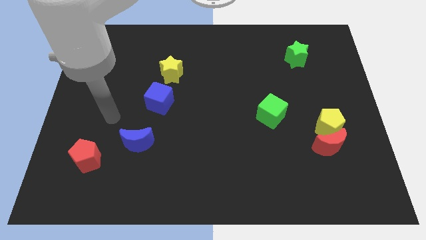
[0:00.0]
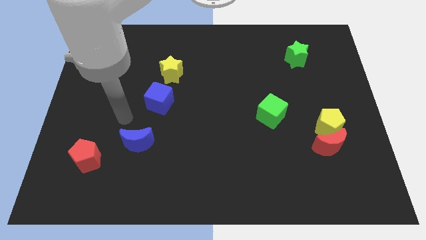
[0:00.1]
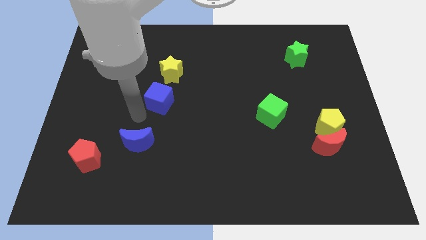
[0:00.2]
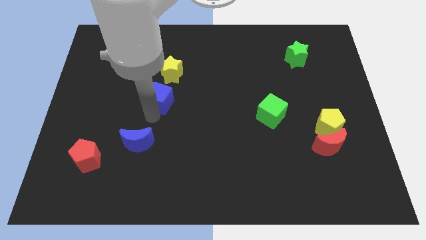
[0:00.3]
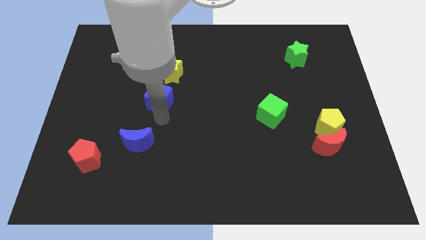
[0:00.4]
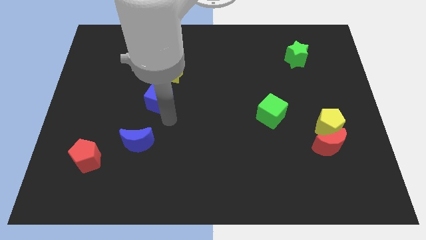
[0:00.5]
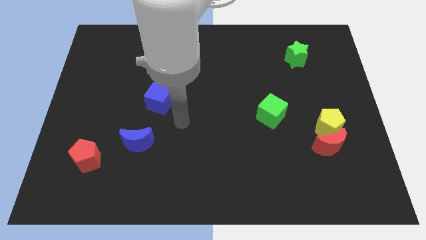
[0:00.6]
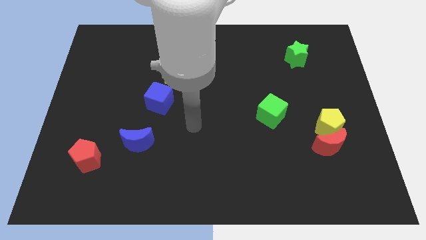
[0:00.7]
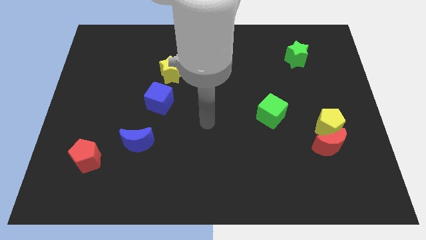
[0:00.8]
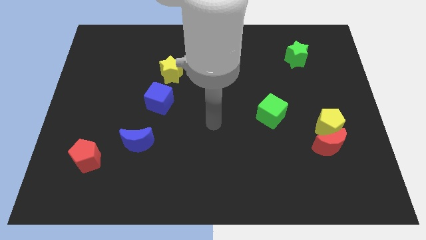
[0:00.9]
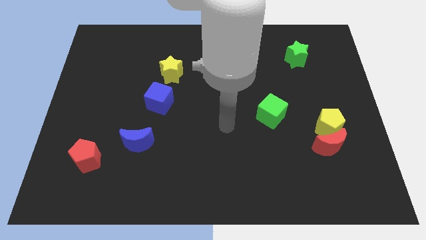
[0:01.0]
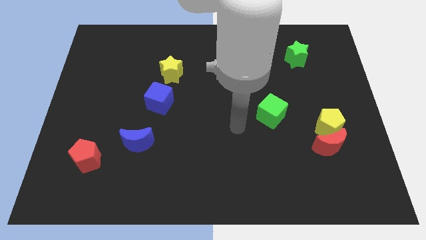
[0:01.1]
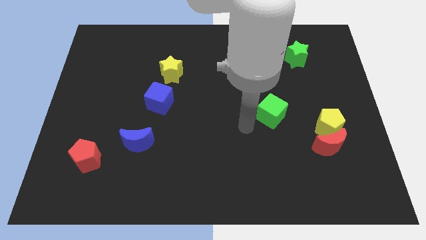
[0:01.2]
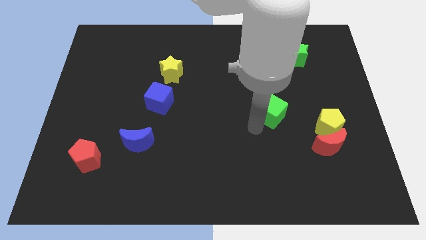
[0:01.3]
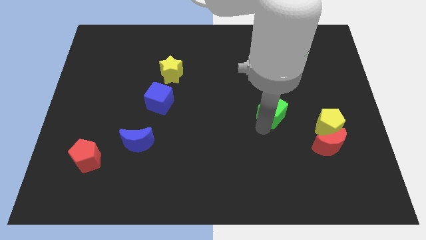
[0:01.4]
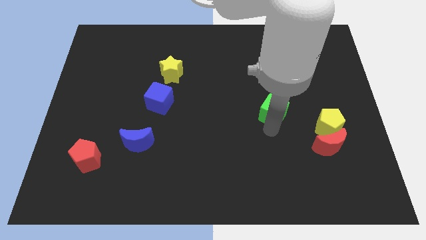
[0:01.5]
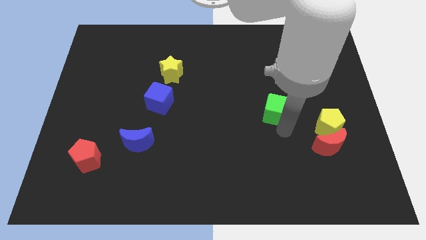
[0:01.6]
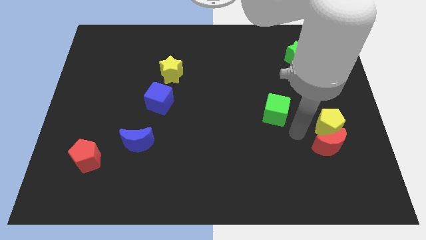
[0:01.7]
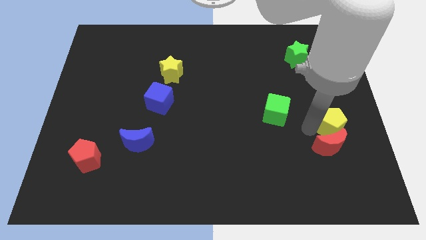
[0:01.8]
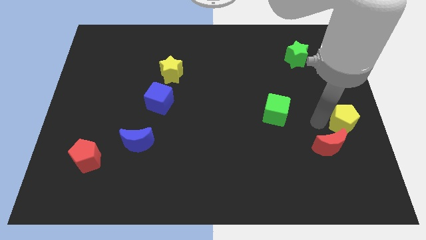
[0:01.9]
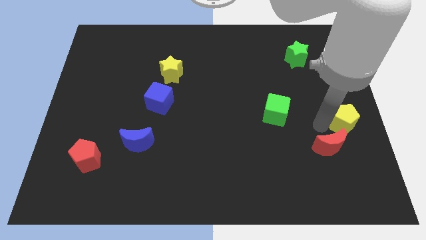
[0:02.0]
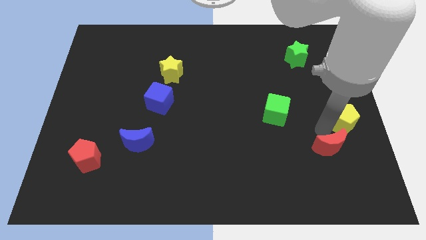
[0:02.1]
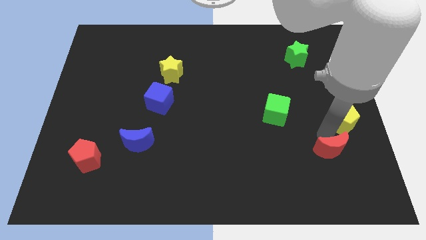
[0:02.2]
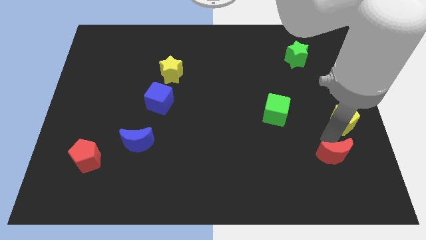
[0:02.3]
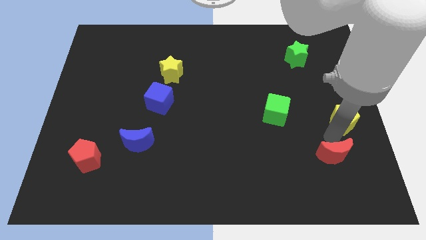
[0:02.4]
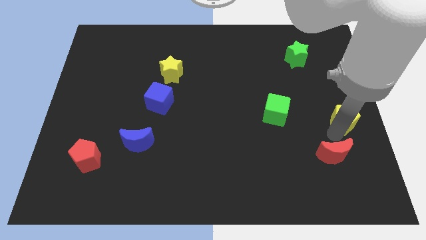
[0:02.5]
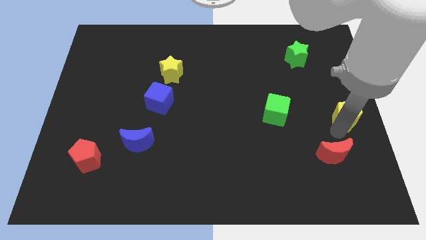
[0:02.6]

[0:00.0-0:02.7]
move the red moon away from the yellow pentagon

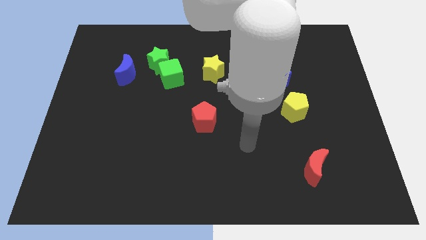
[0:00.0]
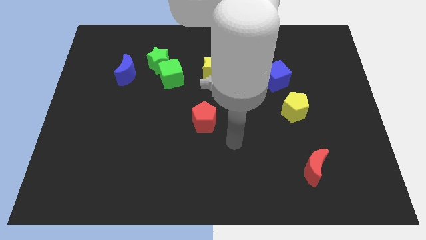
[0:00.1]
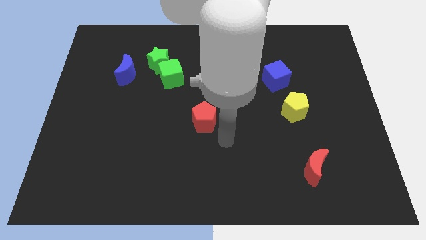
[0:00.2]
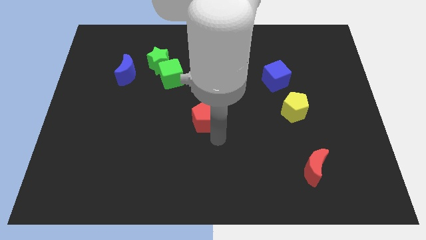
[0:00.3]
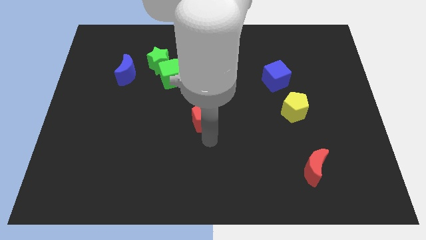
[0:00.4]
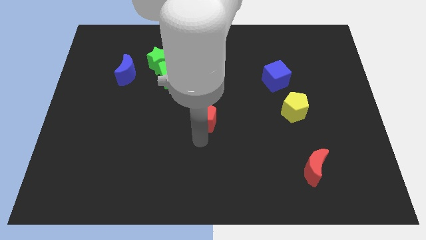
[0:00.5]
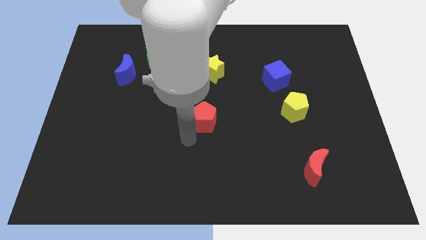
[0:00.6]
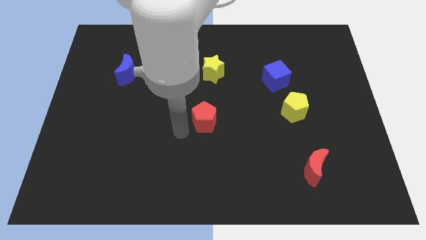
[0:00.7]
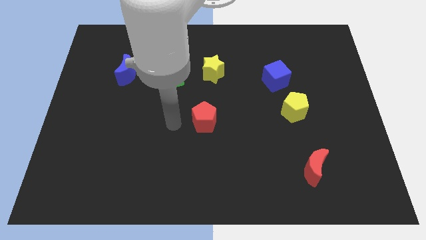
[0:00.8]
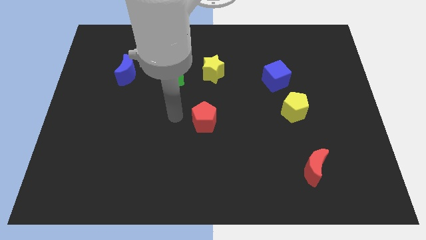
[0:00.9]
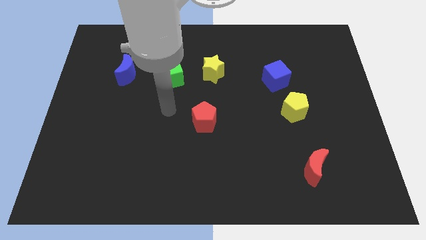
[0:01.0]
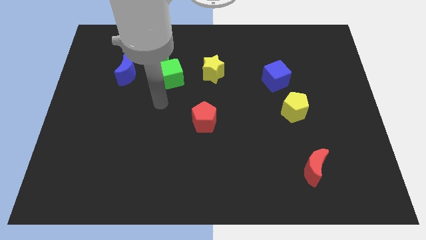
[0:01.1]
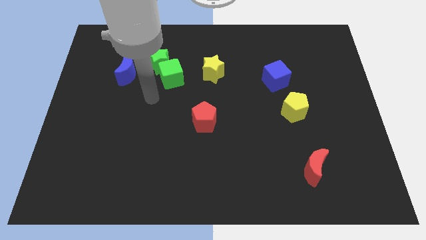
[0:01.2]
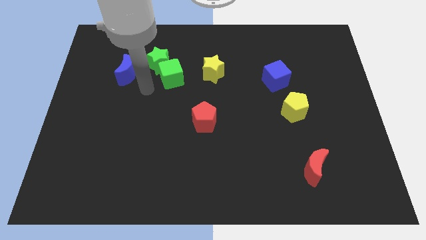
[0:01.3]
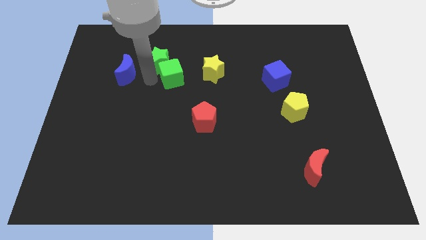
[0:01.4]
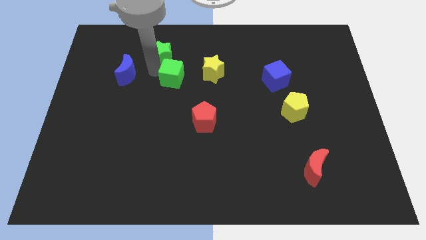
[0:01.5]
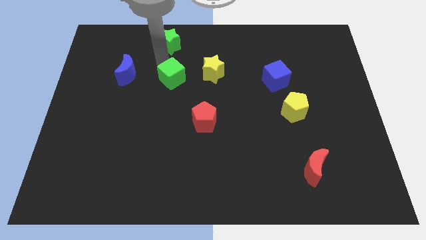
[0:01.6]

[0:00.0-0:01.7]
separate the green cube from the green star

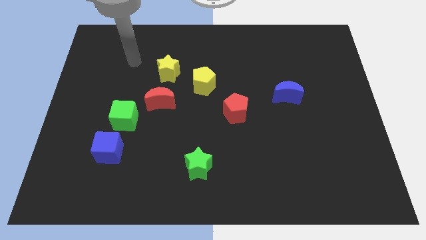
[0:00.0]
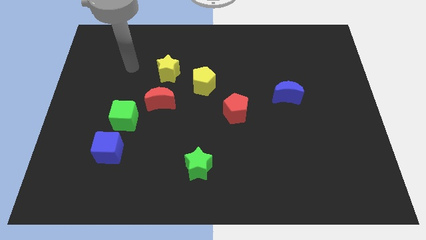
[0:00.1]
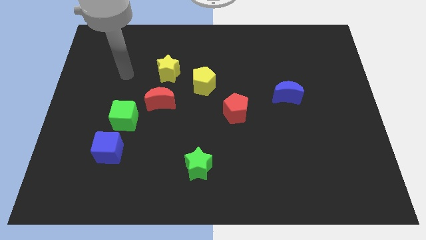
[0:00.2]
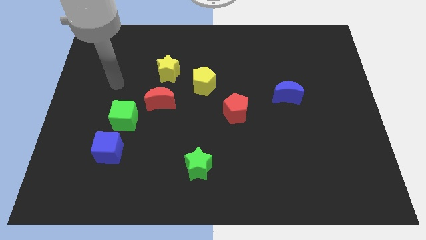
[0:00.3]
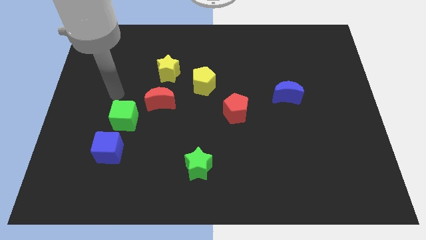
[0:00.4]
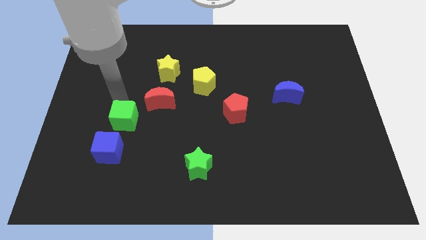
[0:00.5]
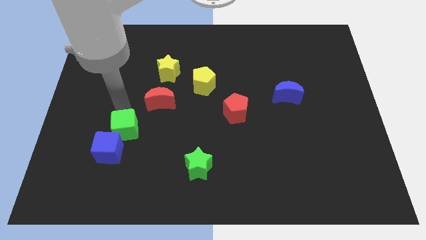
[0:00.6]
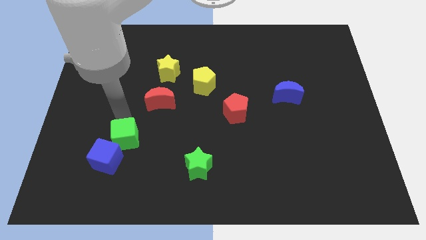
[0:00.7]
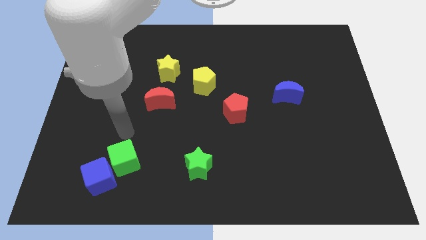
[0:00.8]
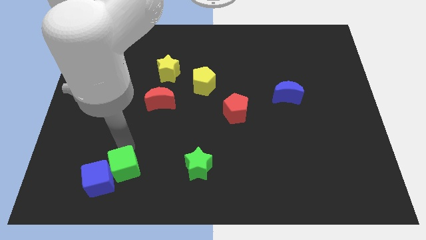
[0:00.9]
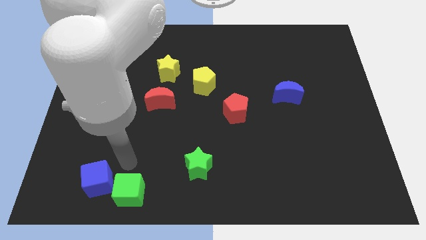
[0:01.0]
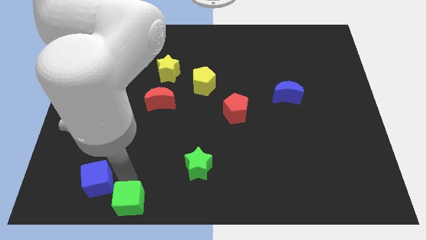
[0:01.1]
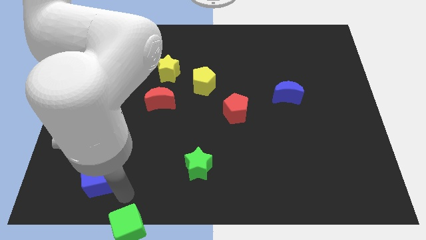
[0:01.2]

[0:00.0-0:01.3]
move the blue cube away from the green cube

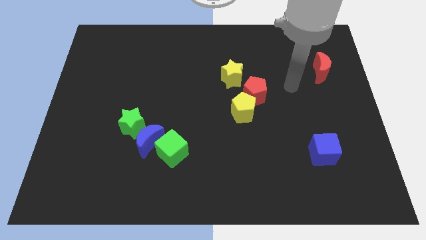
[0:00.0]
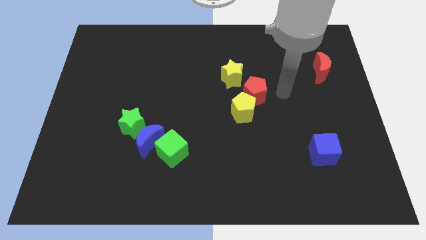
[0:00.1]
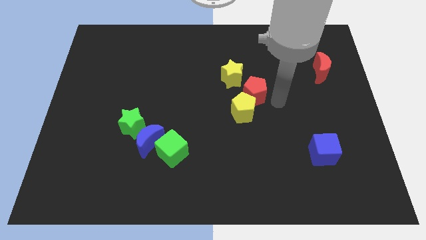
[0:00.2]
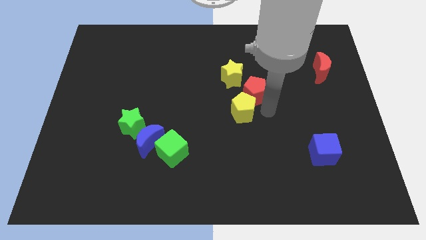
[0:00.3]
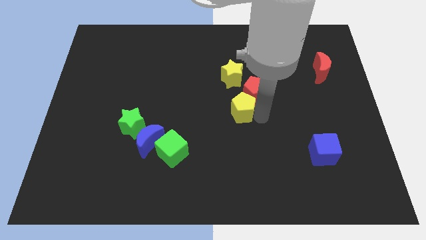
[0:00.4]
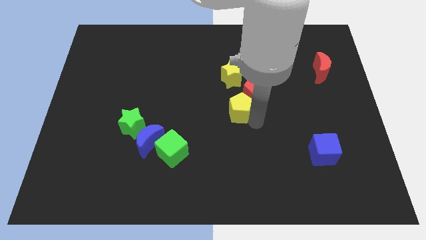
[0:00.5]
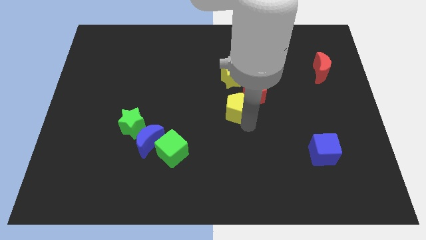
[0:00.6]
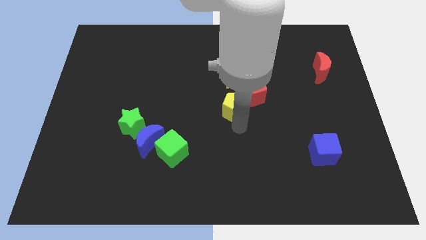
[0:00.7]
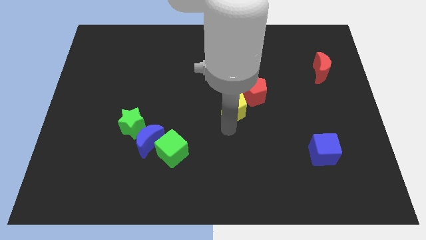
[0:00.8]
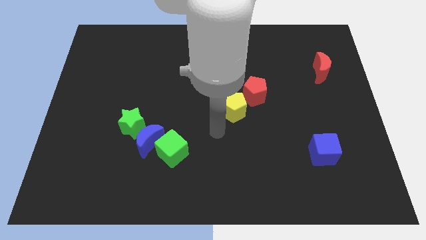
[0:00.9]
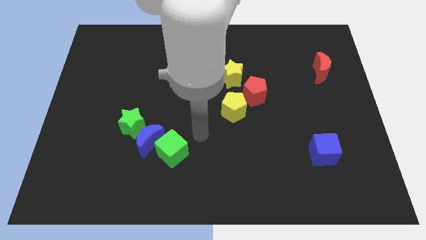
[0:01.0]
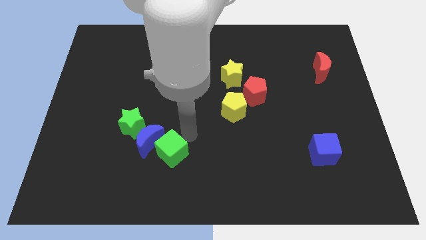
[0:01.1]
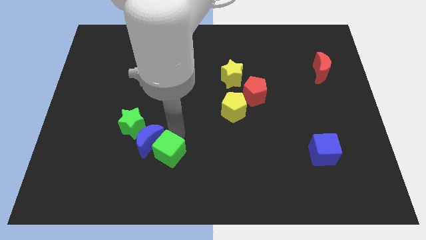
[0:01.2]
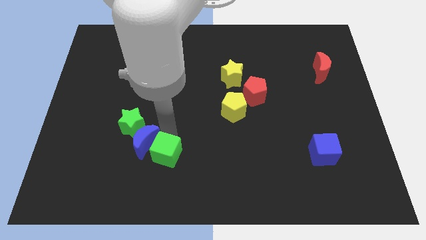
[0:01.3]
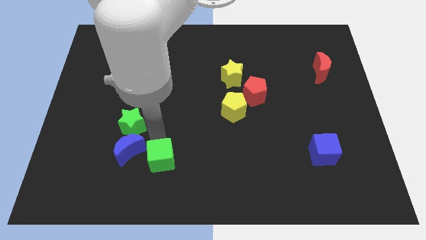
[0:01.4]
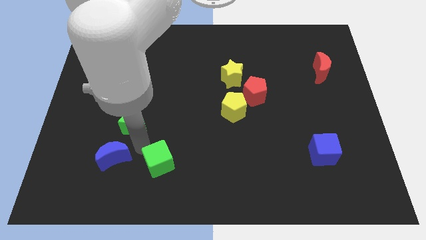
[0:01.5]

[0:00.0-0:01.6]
separate the green cube from the blue moon

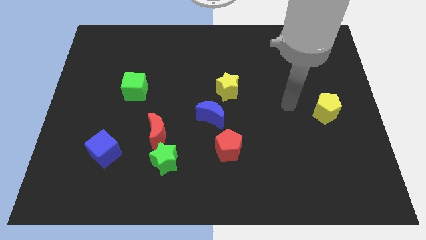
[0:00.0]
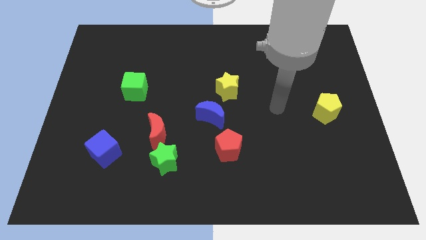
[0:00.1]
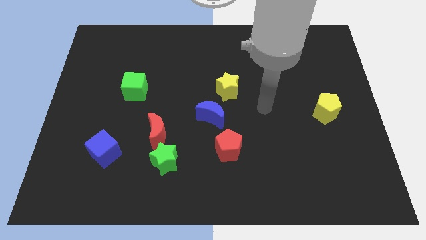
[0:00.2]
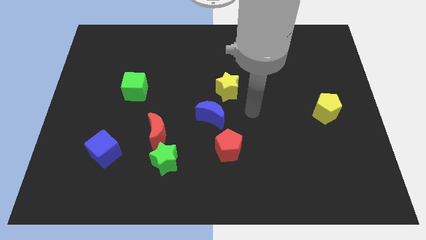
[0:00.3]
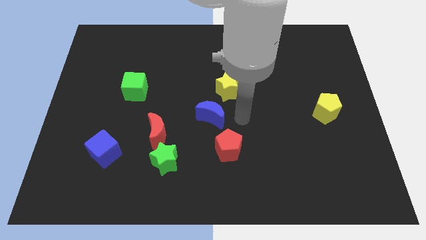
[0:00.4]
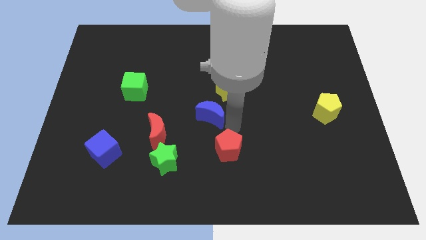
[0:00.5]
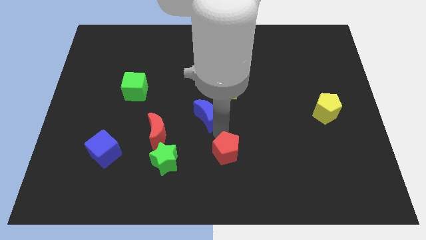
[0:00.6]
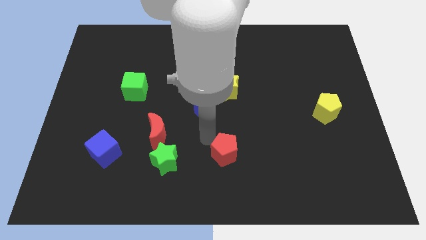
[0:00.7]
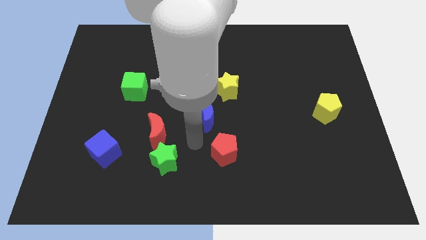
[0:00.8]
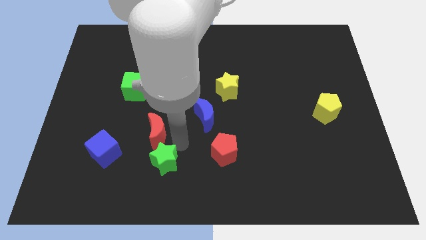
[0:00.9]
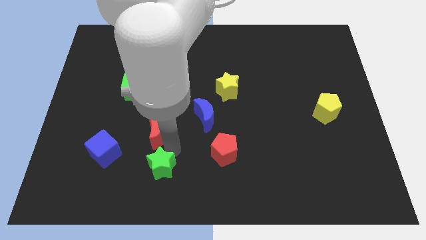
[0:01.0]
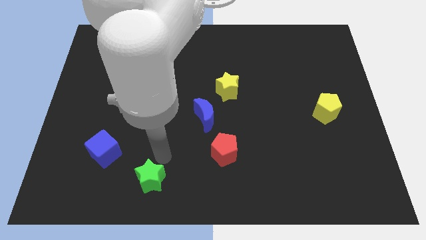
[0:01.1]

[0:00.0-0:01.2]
pull the red moon apart from the green star

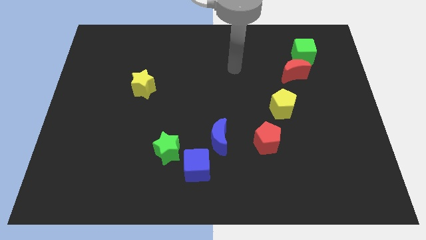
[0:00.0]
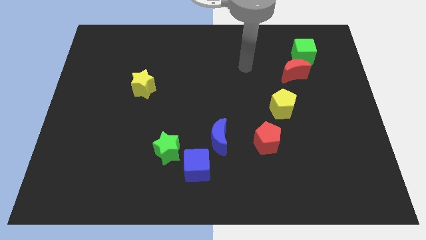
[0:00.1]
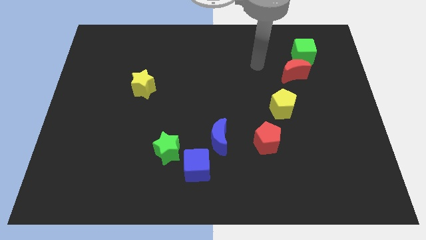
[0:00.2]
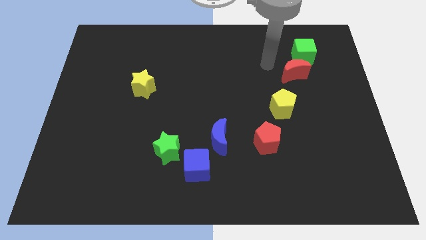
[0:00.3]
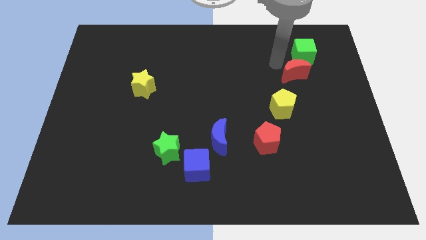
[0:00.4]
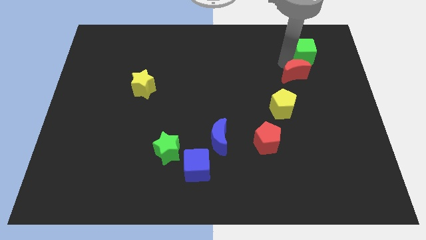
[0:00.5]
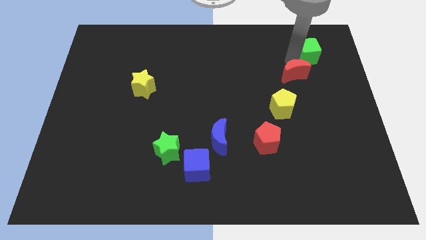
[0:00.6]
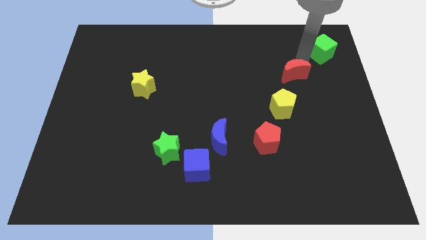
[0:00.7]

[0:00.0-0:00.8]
pull the red moon apart from the green cube
